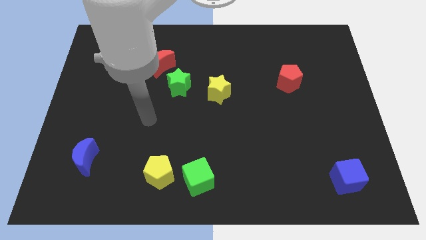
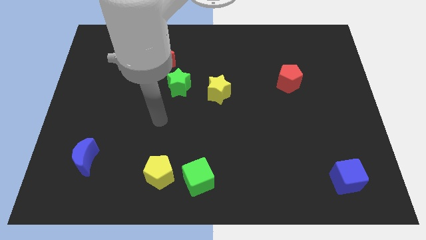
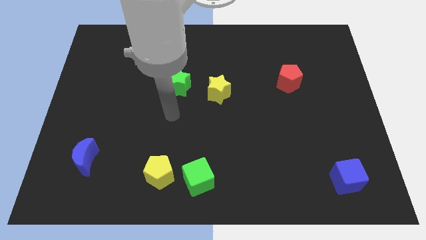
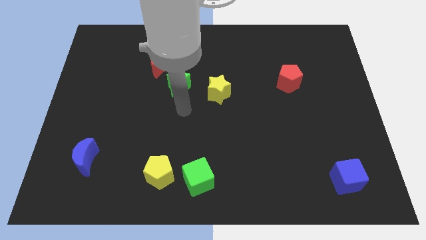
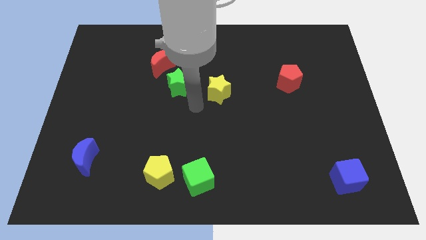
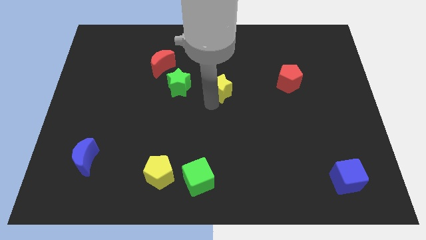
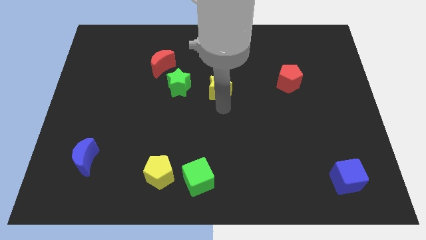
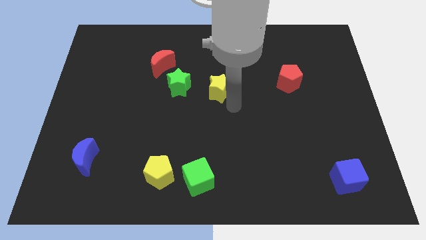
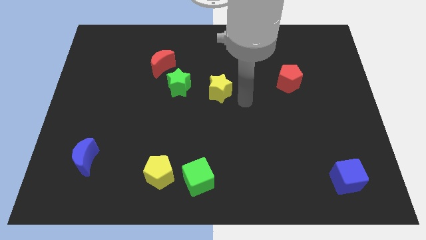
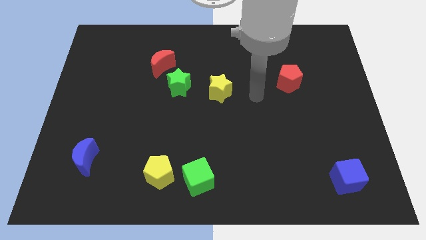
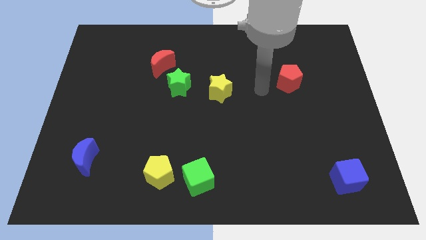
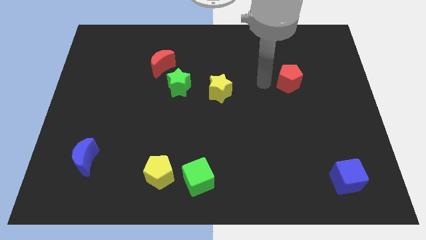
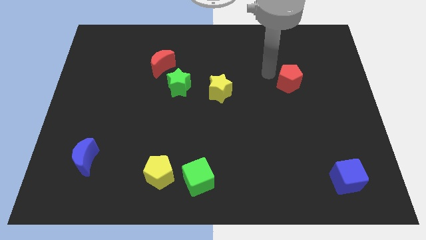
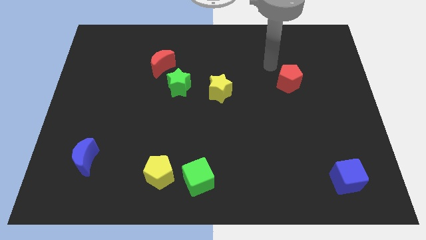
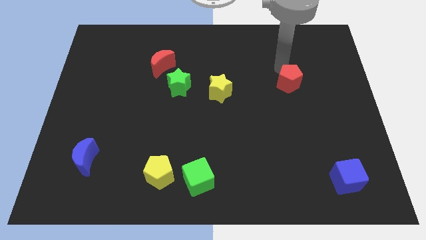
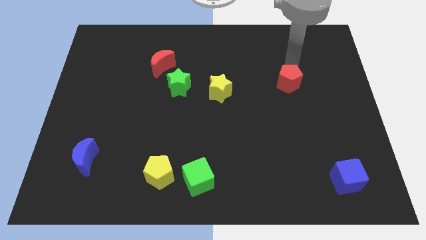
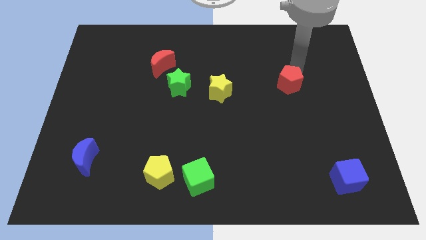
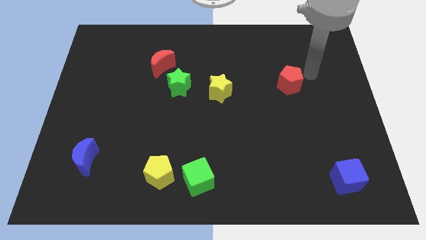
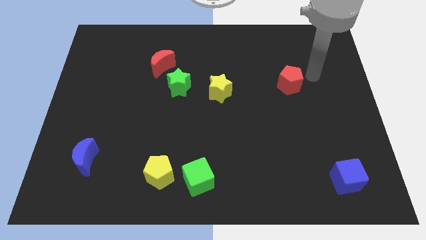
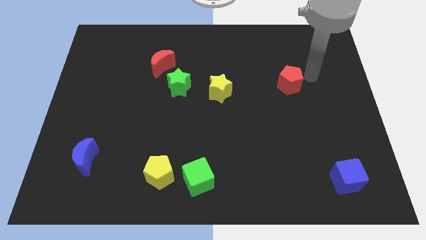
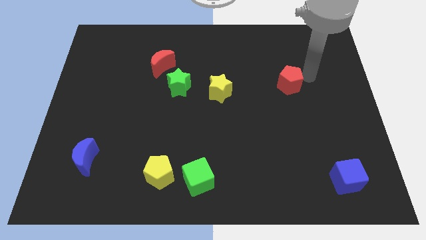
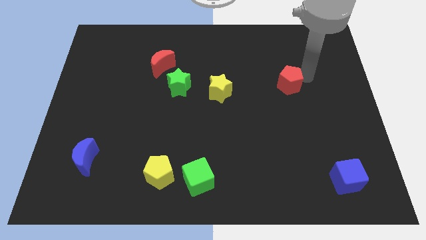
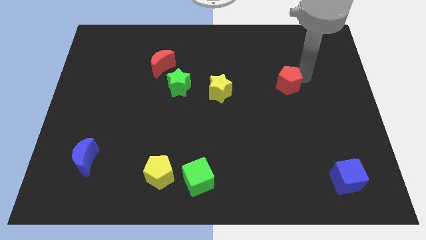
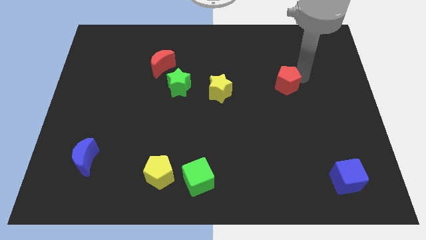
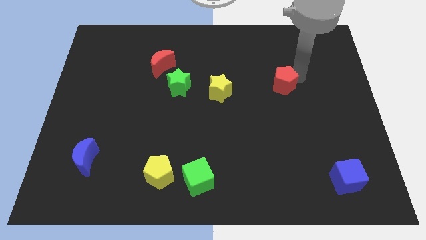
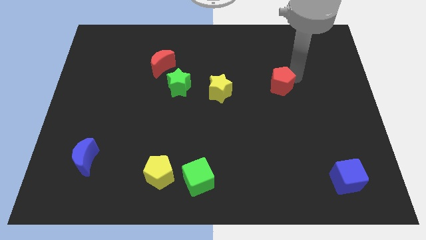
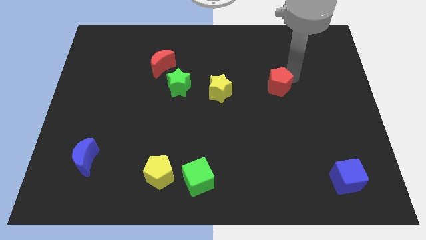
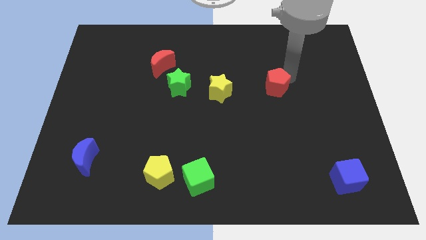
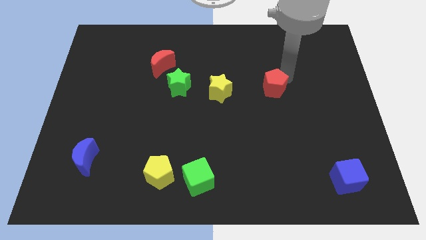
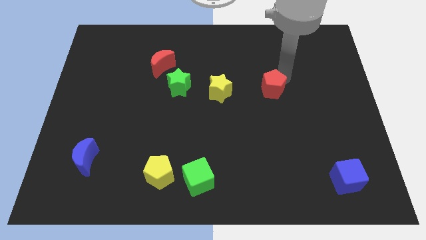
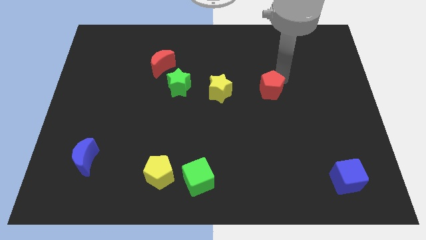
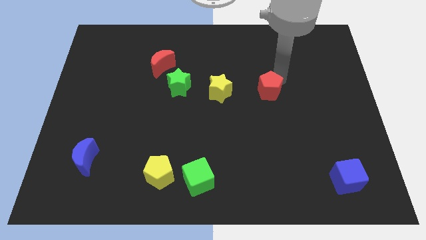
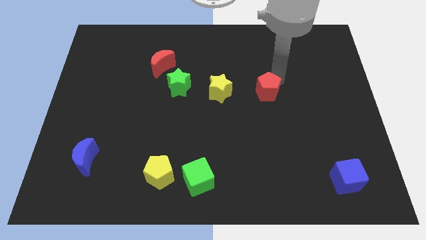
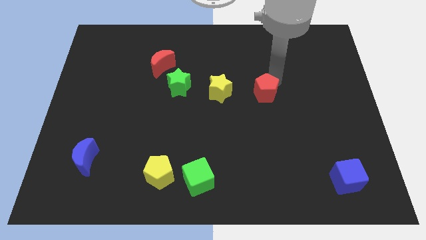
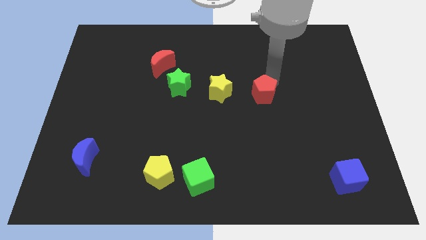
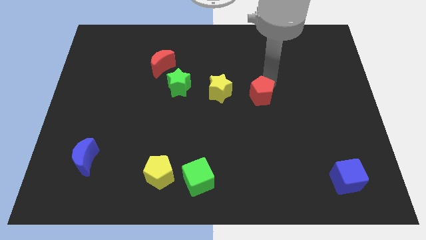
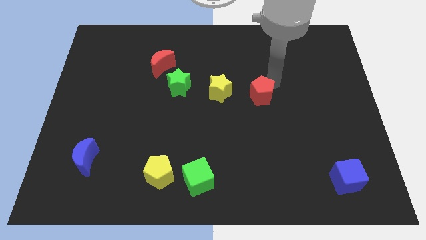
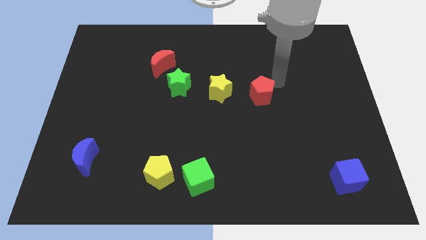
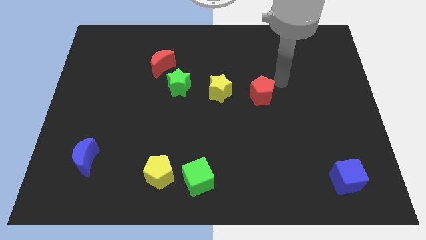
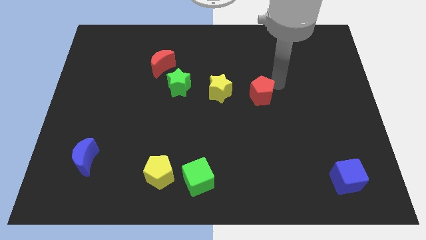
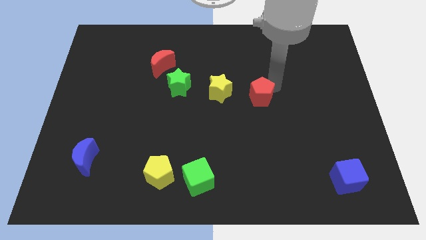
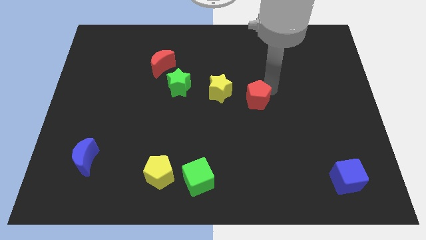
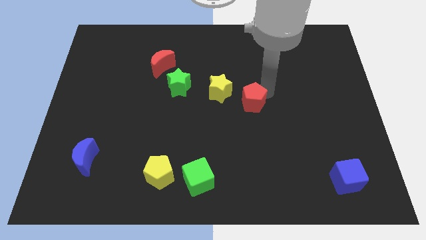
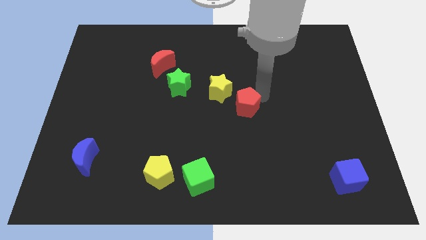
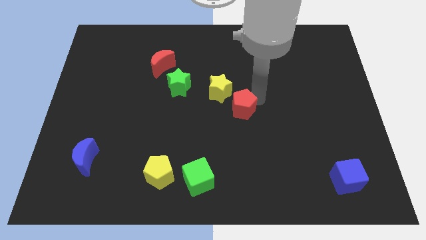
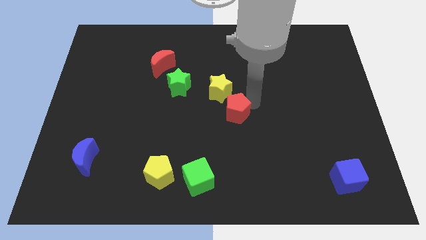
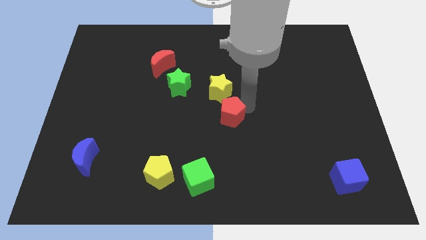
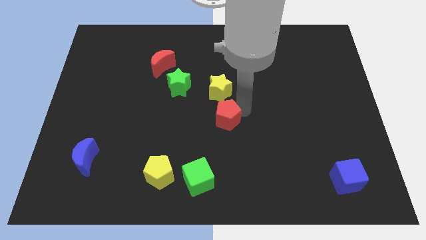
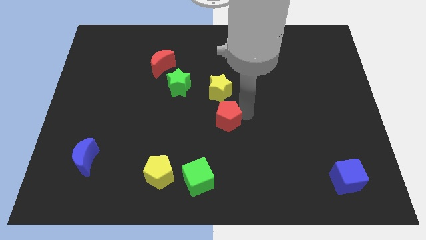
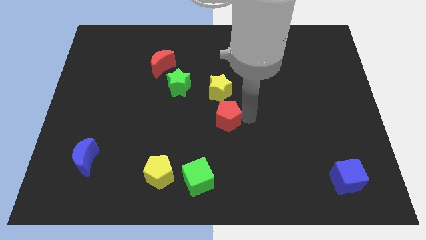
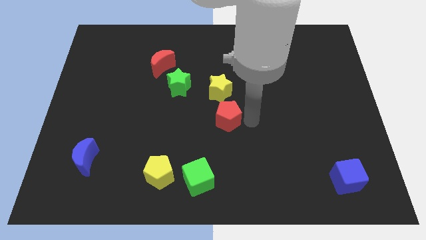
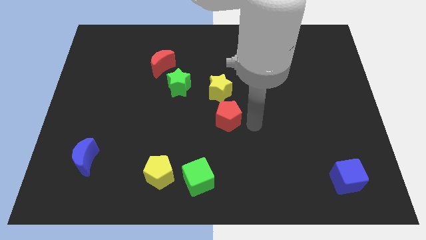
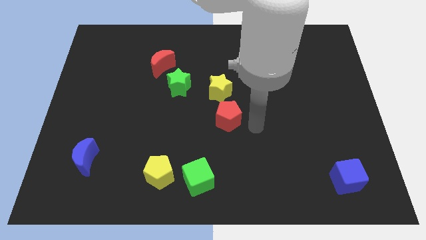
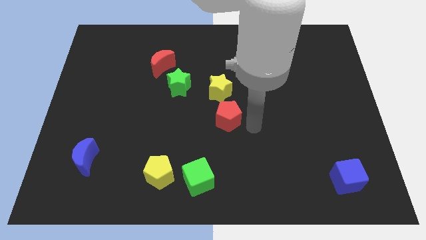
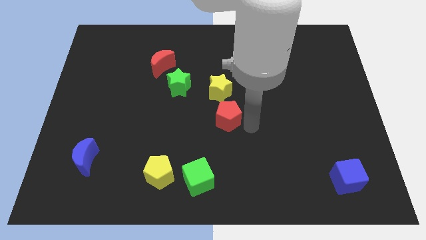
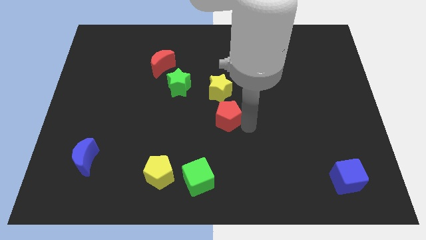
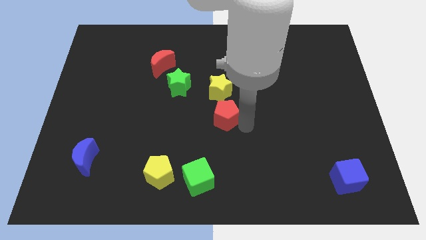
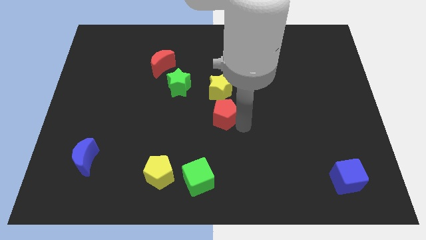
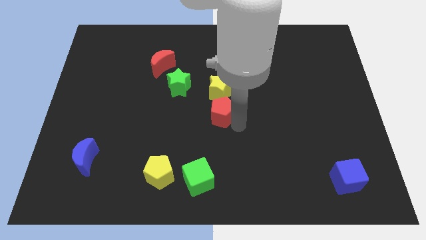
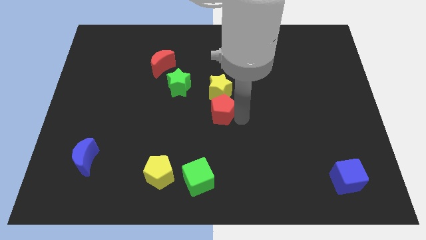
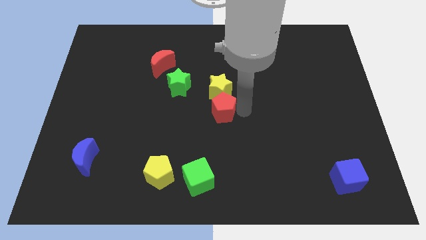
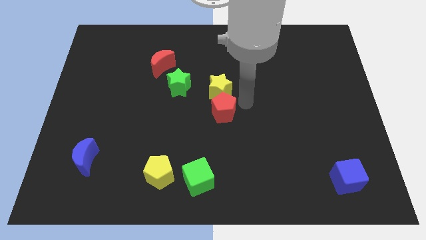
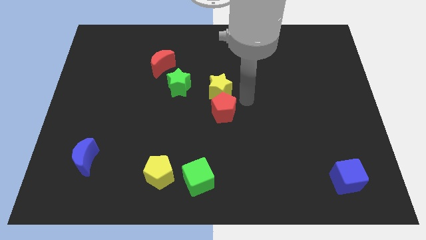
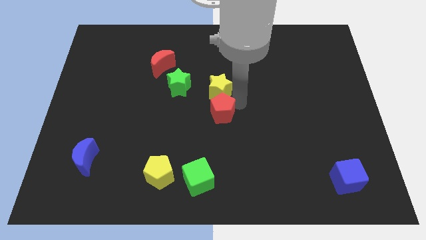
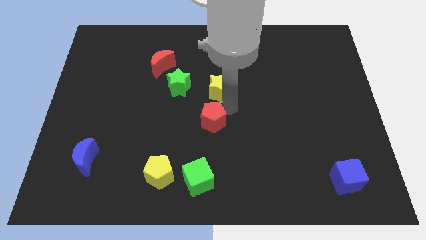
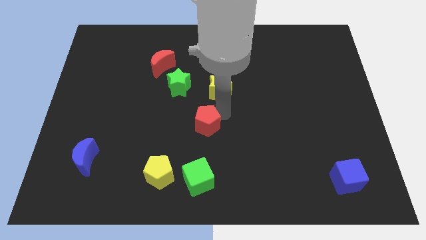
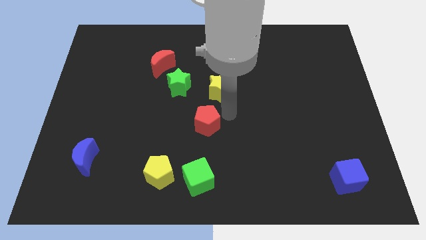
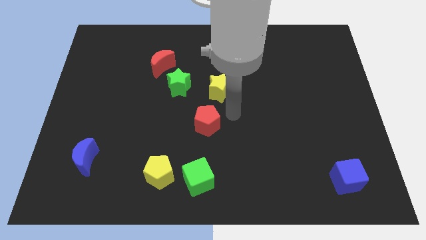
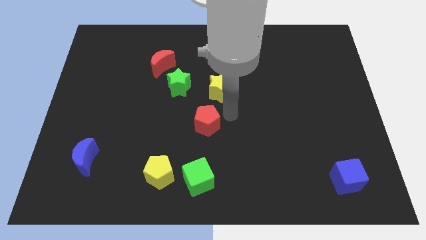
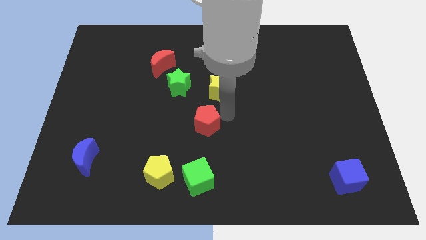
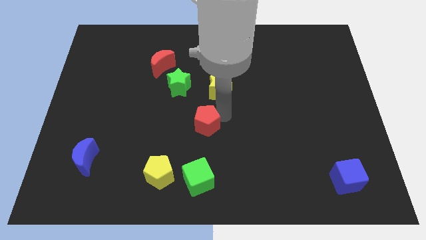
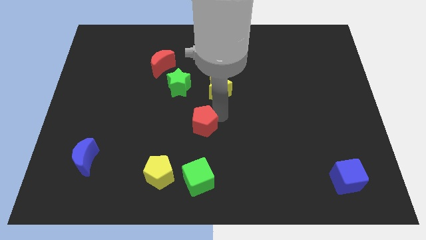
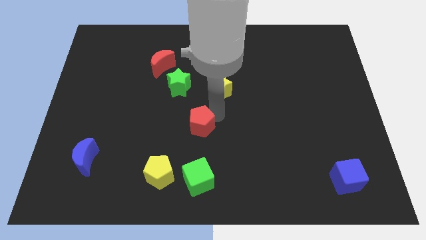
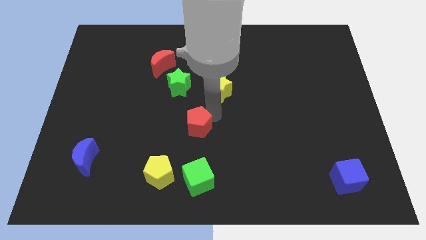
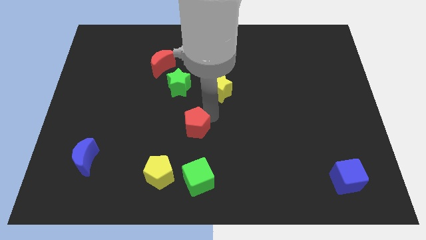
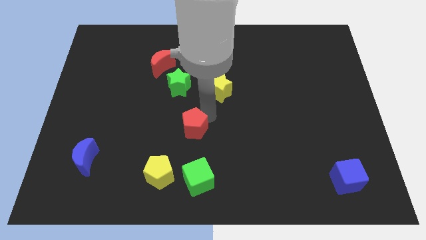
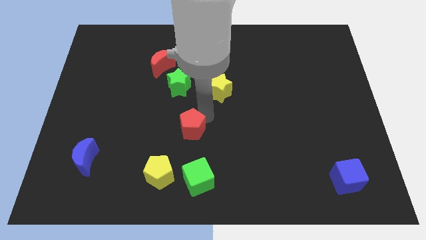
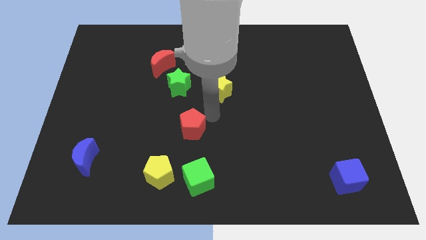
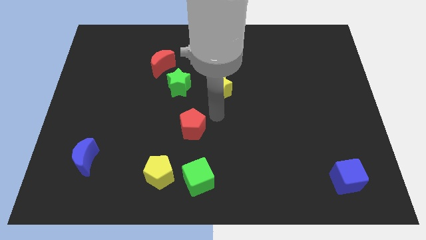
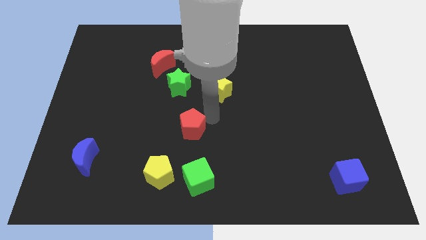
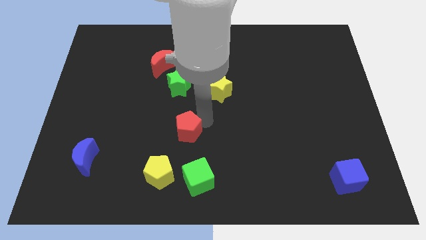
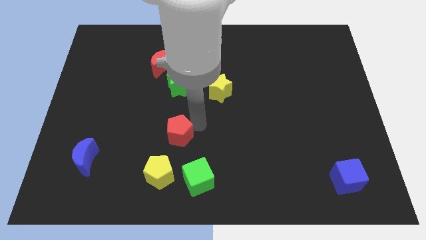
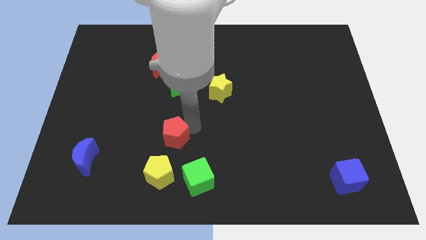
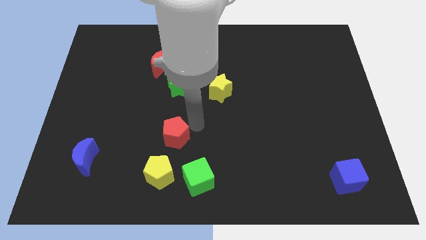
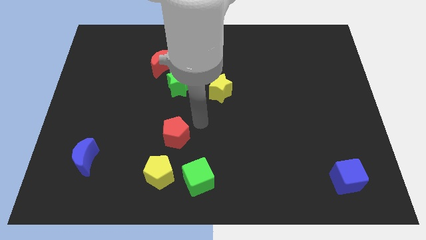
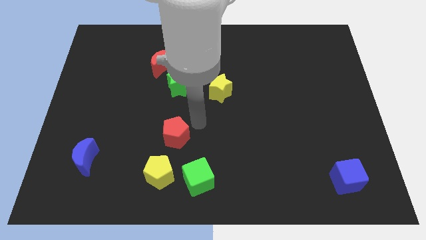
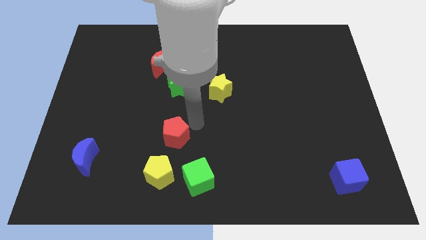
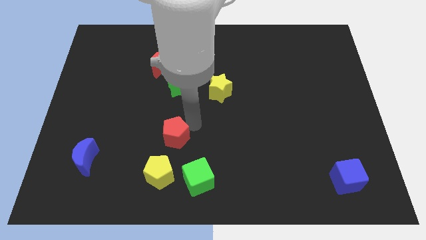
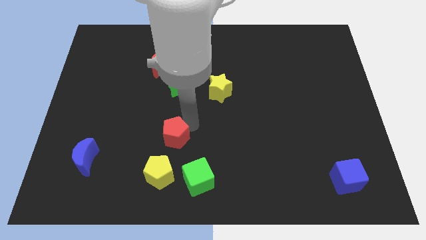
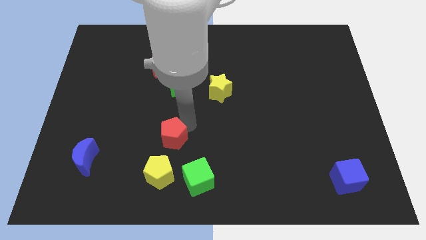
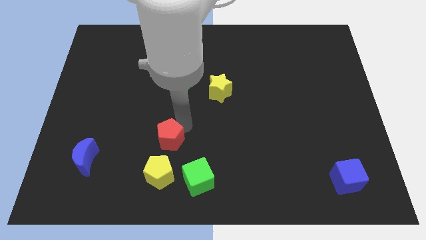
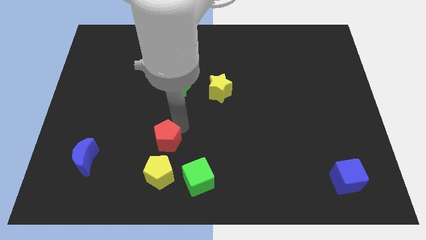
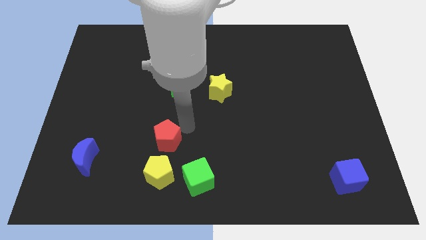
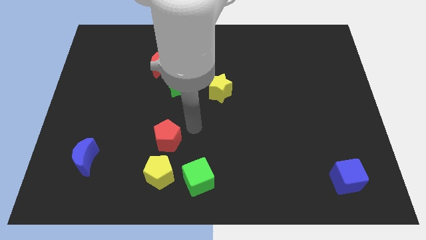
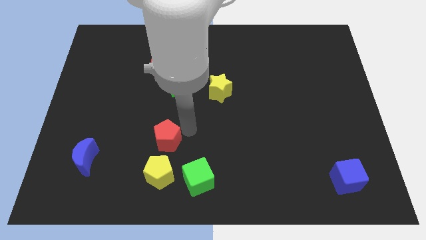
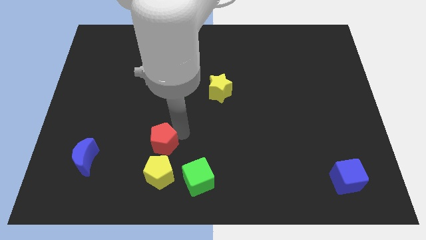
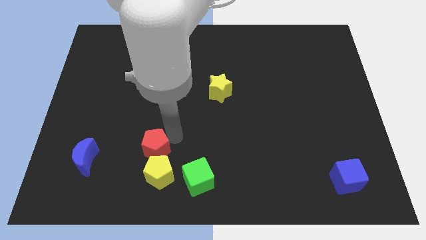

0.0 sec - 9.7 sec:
slide the red pentagon diagonally up and to the left of the yellow pentagon
